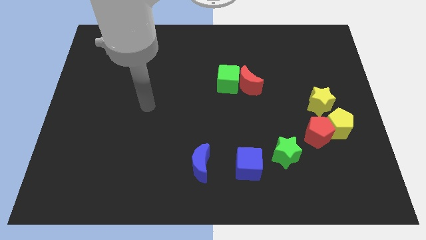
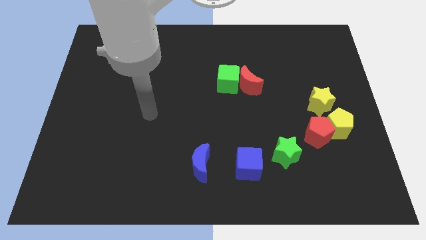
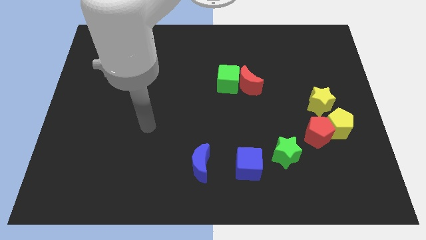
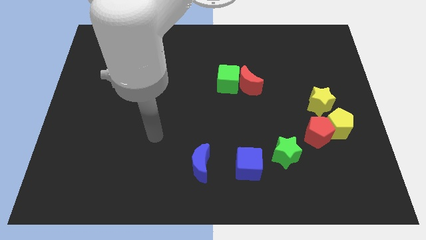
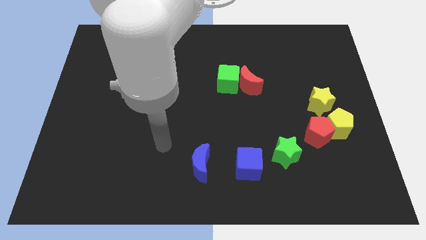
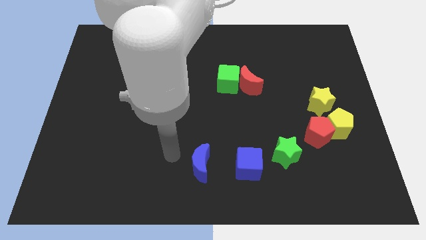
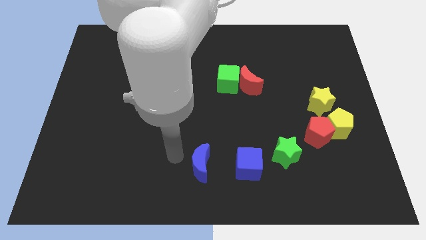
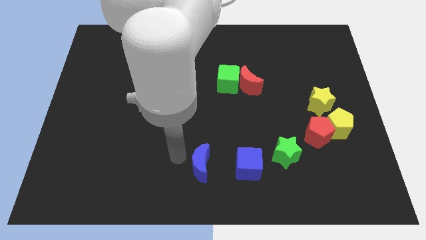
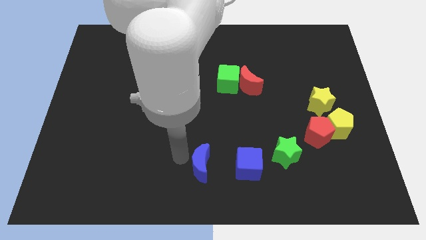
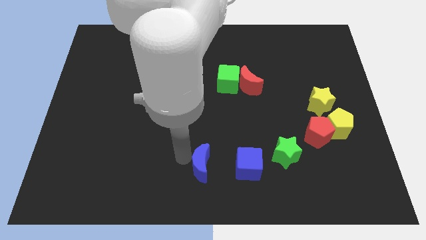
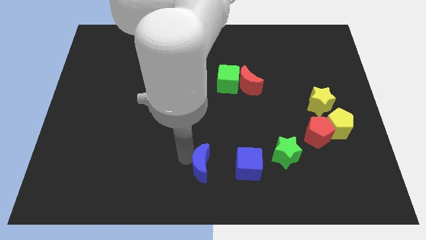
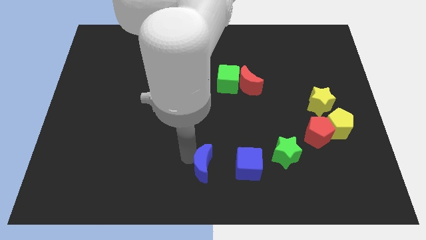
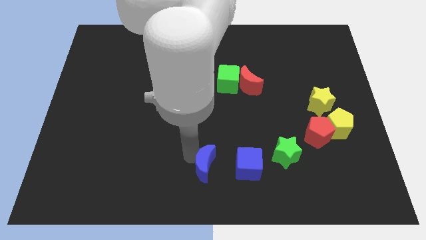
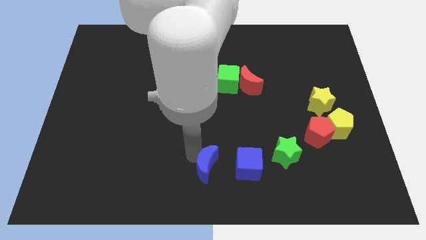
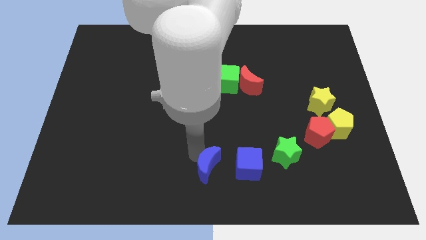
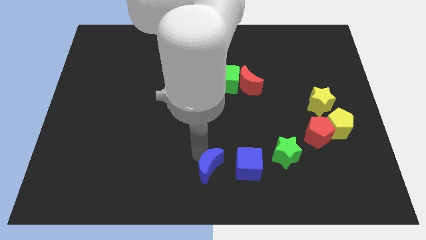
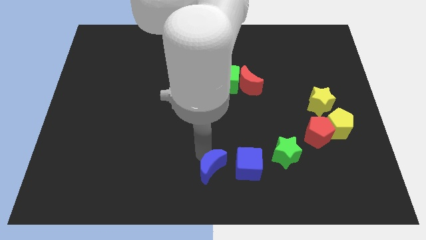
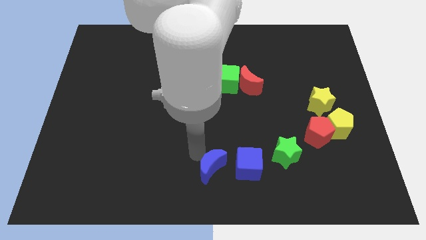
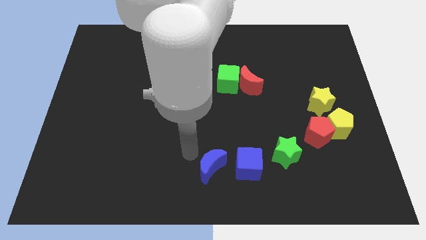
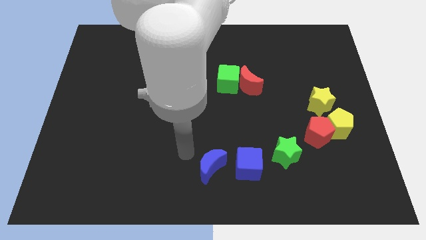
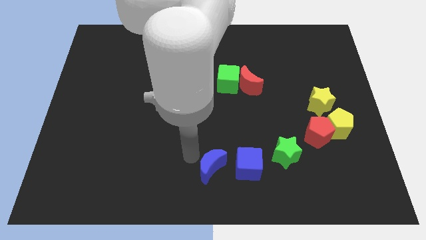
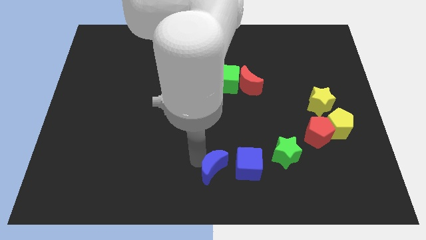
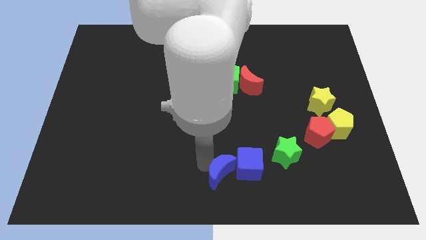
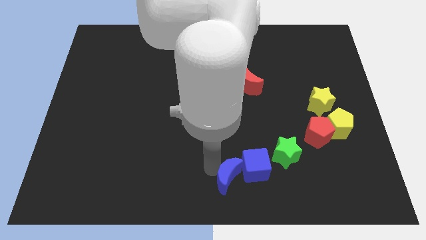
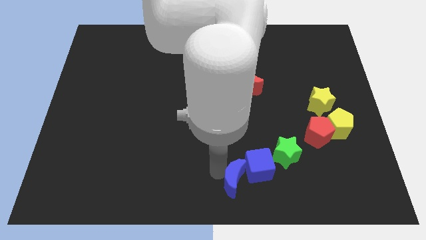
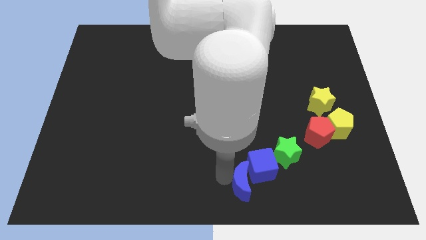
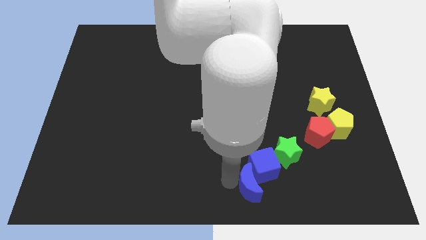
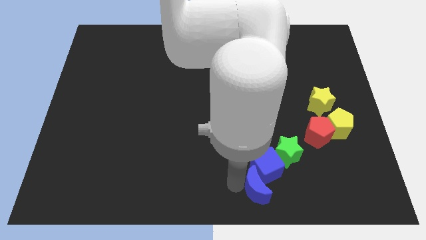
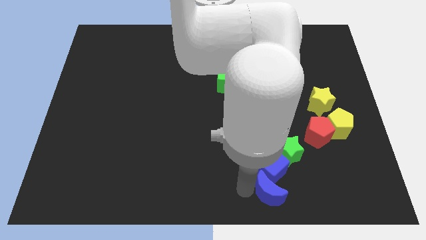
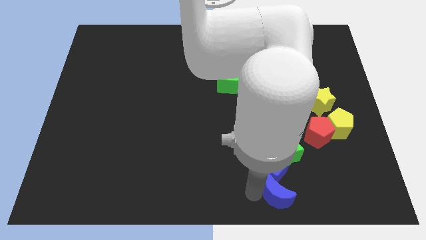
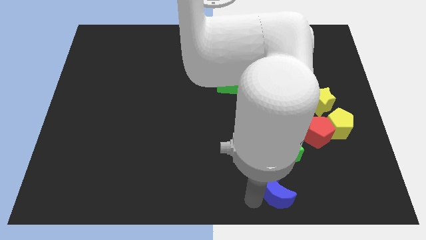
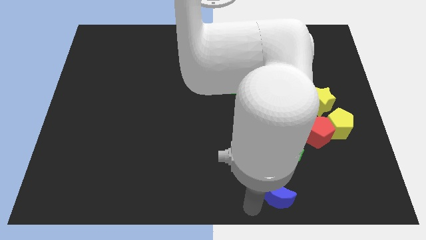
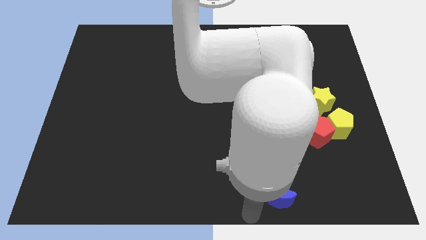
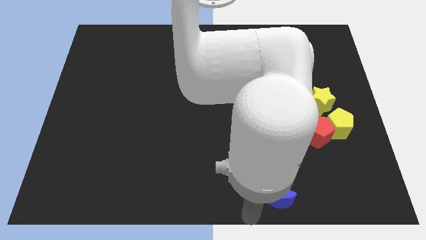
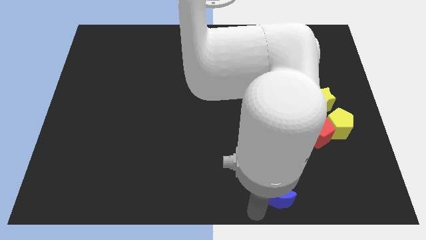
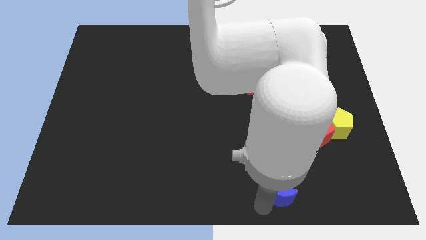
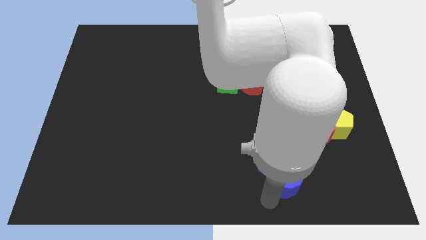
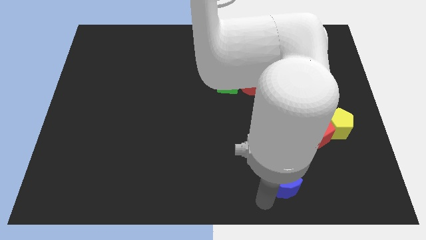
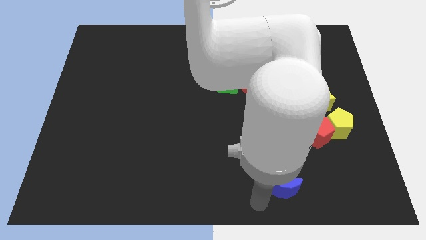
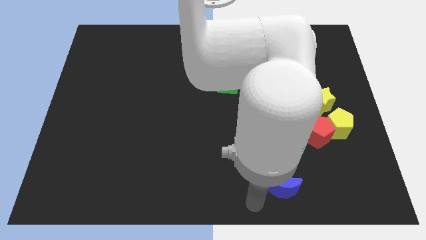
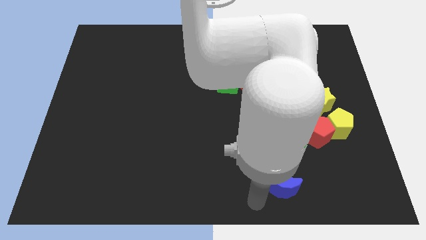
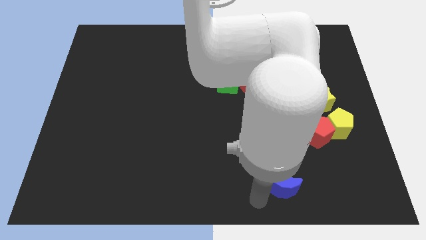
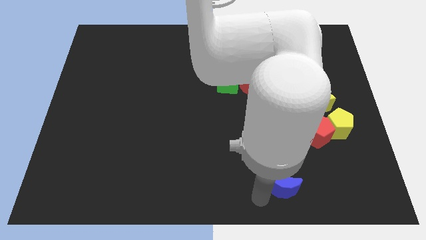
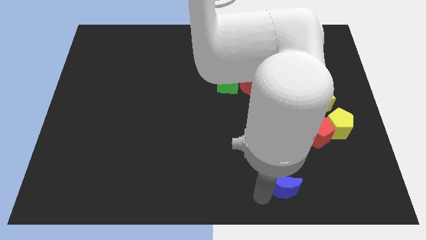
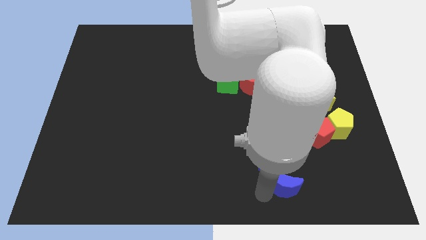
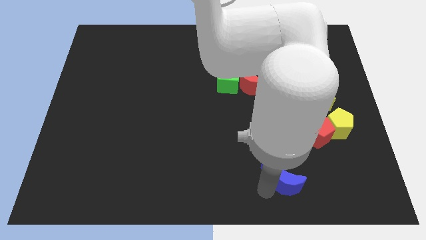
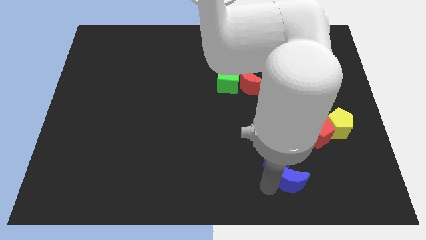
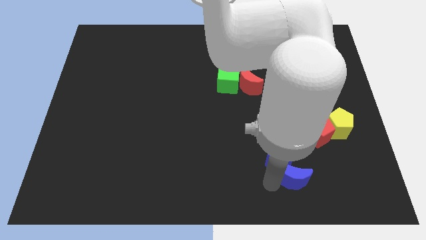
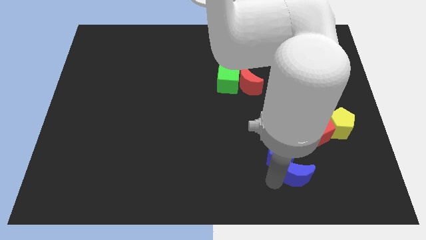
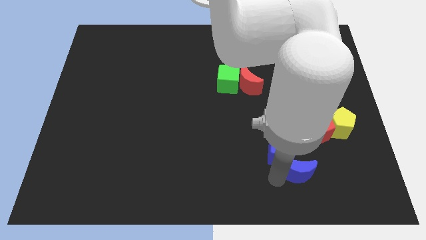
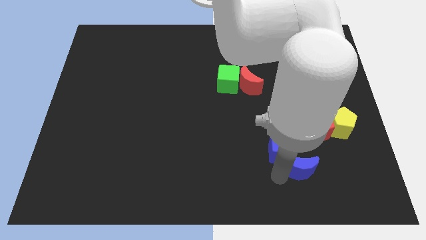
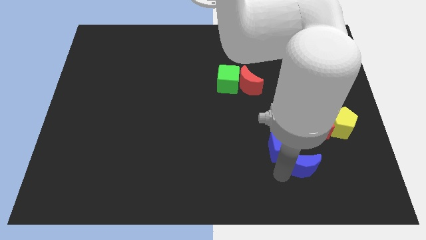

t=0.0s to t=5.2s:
move the blue moon to the bottom side of the red pentagon

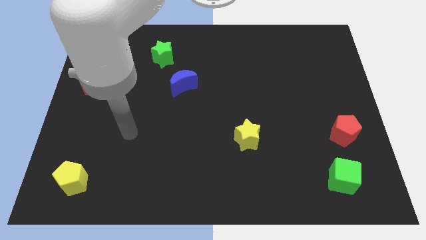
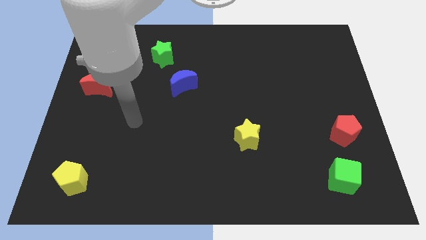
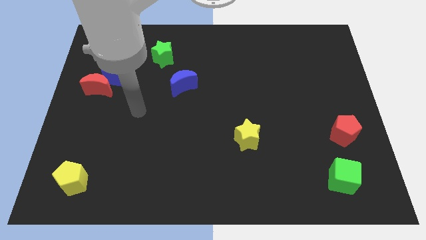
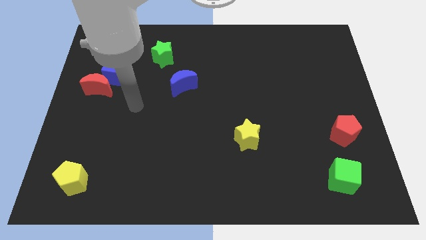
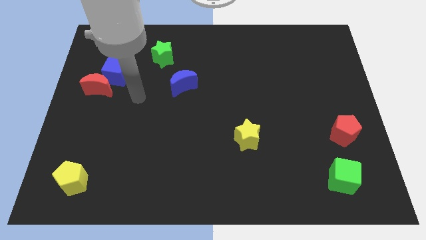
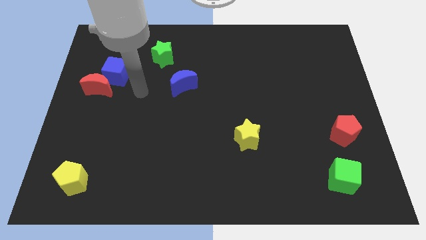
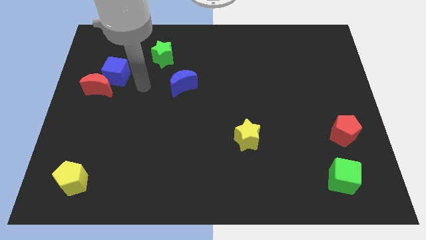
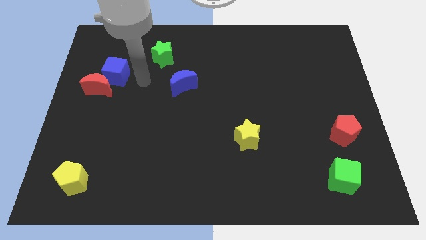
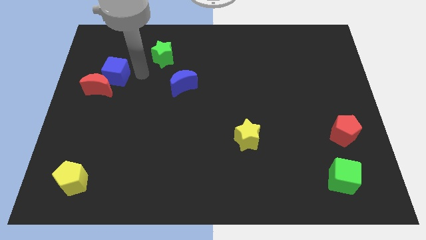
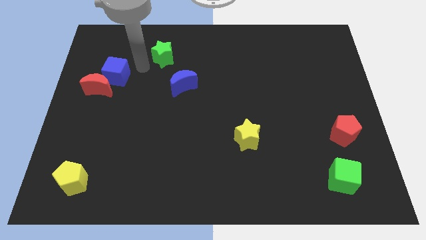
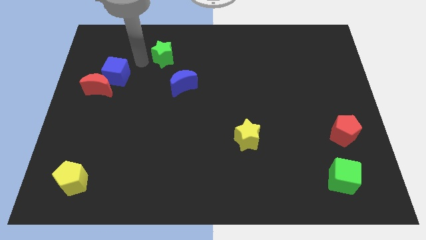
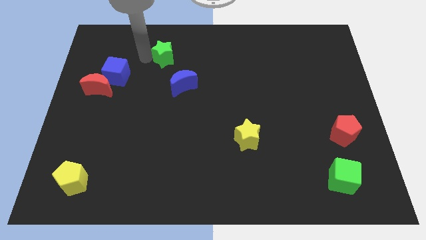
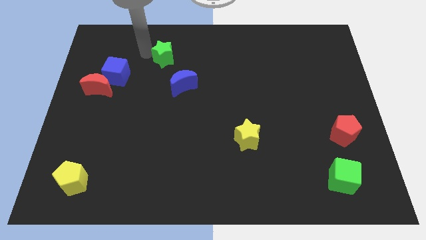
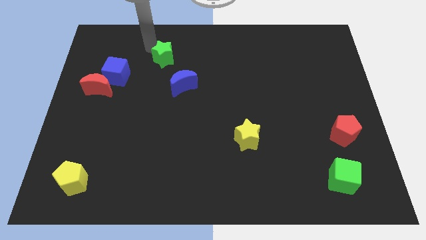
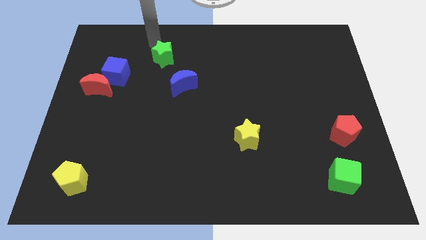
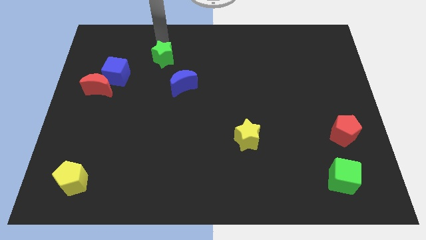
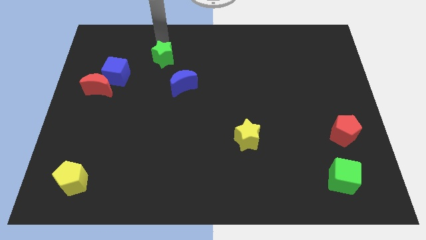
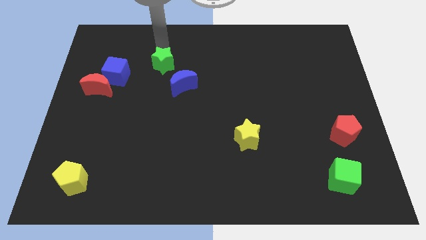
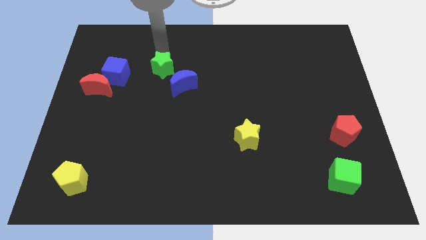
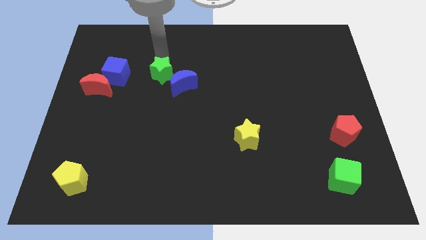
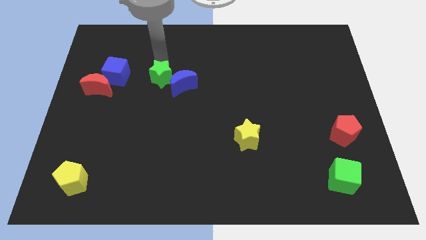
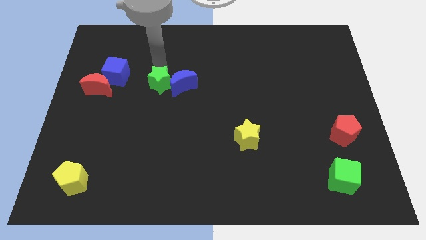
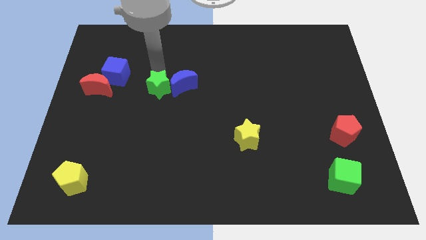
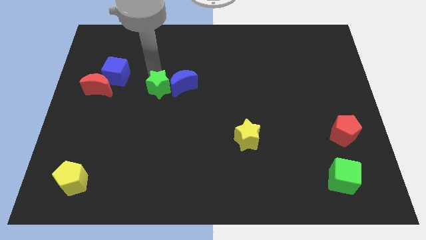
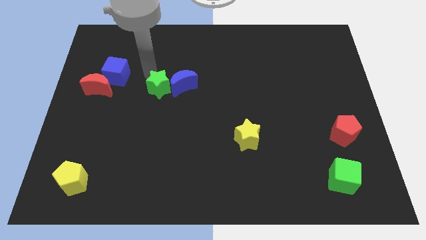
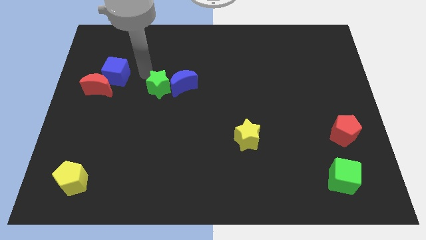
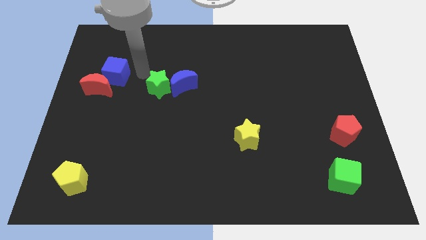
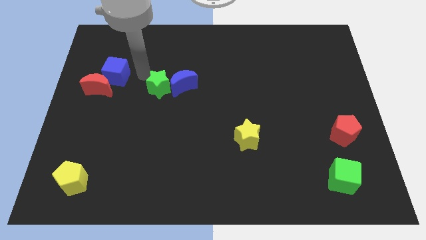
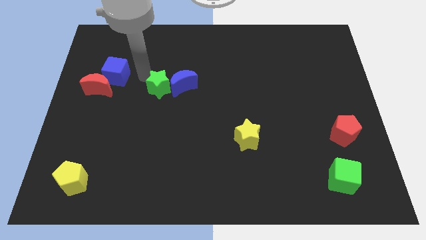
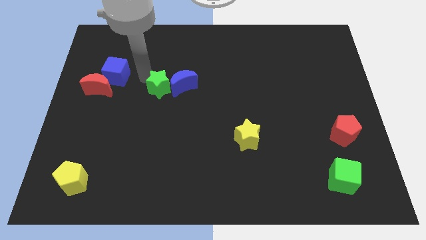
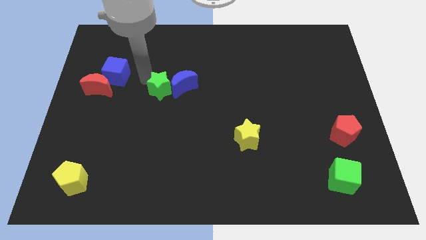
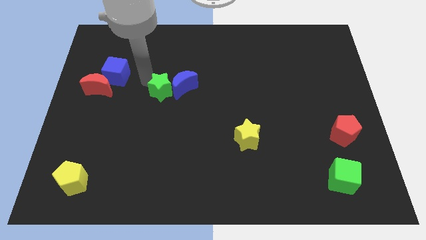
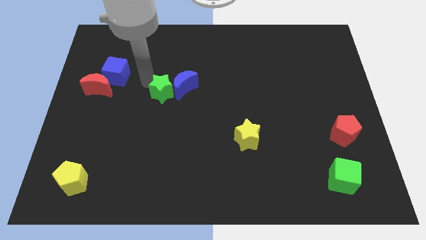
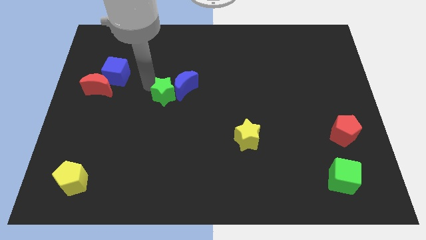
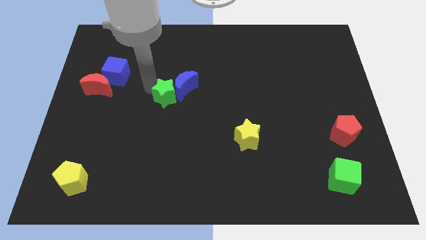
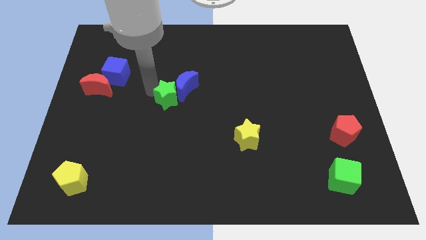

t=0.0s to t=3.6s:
slide the green star to the bottom side of the blue moon
